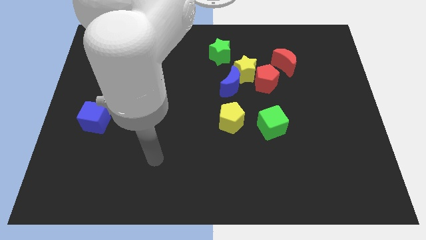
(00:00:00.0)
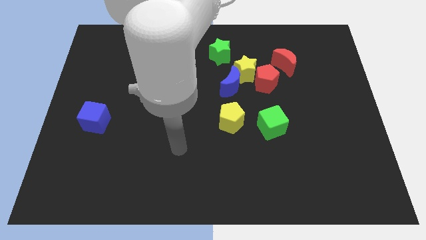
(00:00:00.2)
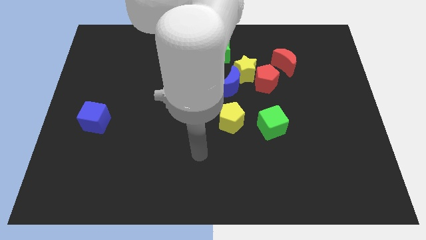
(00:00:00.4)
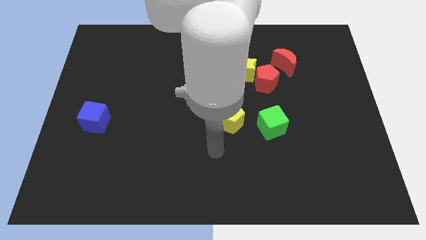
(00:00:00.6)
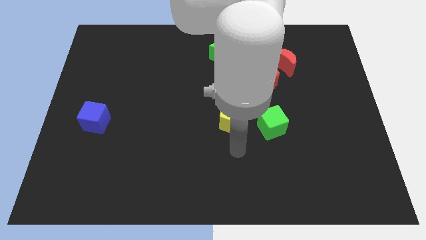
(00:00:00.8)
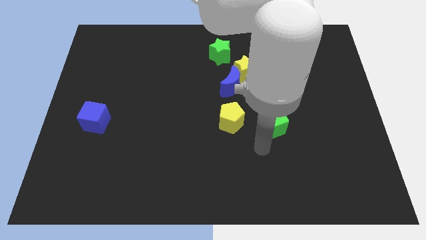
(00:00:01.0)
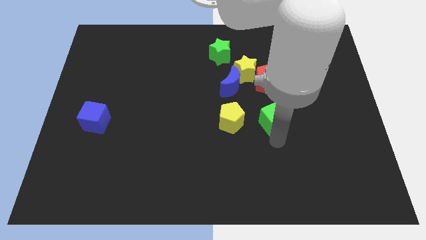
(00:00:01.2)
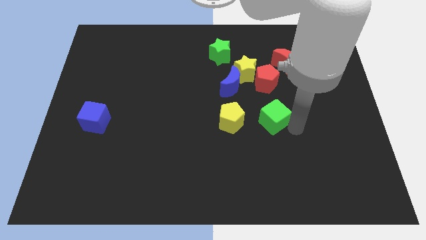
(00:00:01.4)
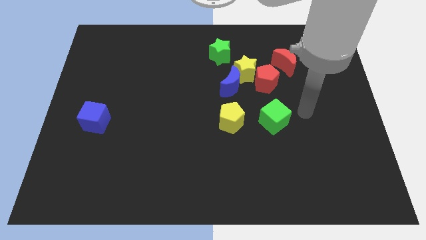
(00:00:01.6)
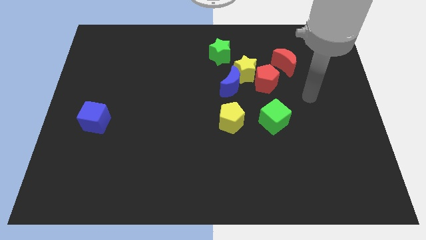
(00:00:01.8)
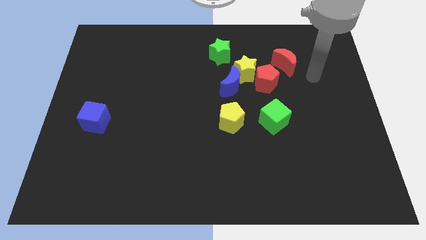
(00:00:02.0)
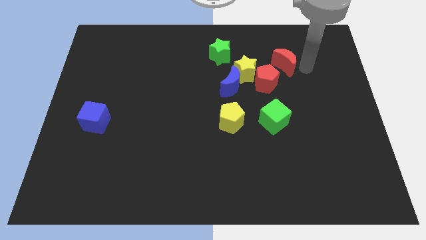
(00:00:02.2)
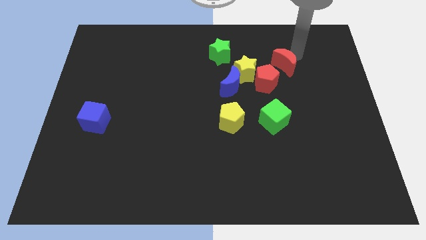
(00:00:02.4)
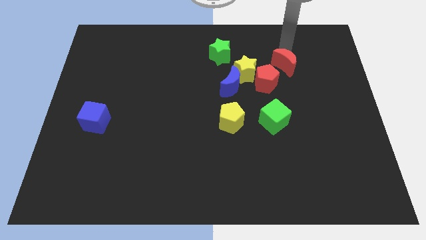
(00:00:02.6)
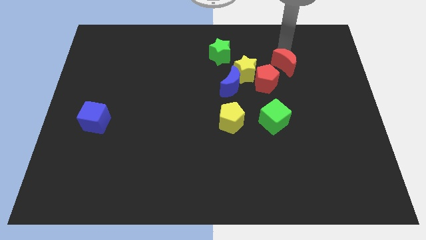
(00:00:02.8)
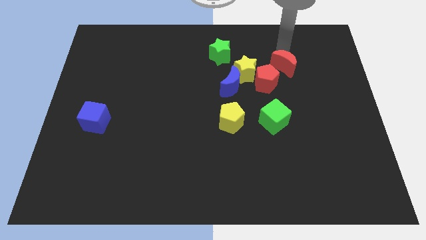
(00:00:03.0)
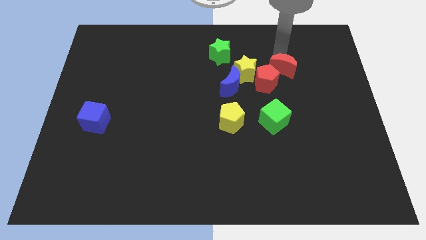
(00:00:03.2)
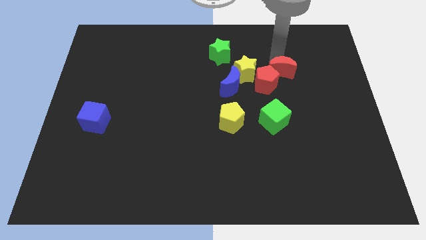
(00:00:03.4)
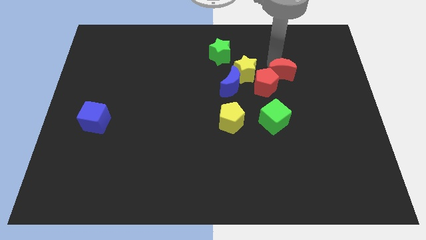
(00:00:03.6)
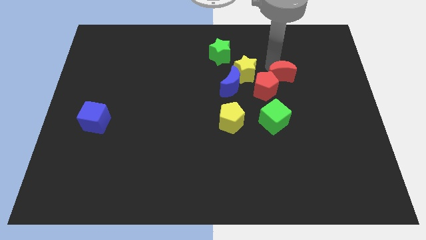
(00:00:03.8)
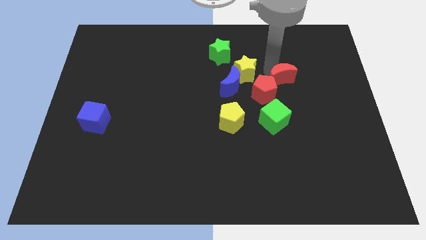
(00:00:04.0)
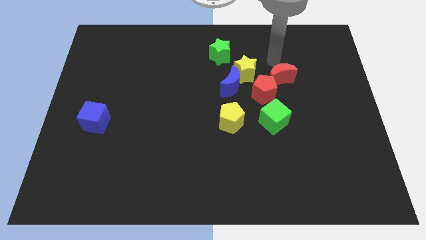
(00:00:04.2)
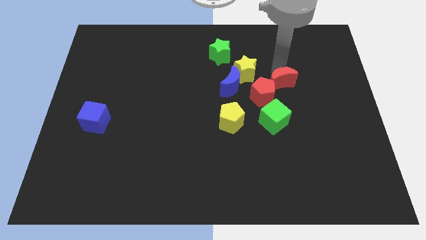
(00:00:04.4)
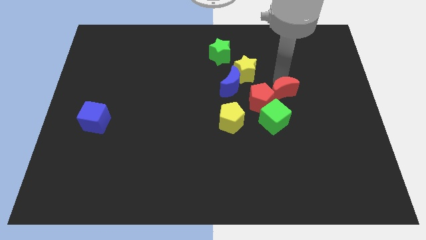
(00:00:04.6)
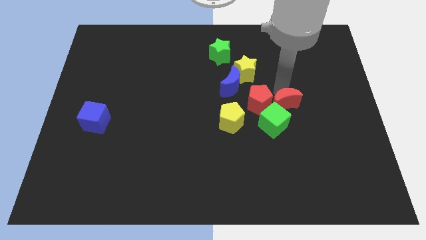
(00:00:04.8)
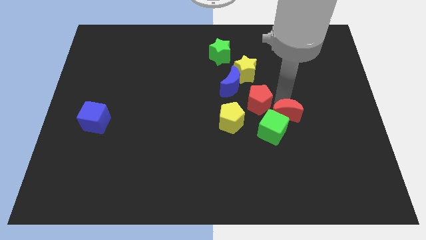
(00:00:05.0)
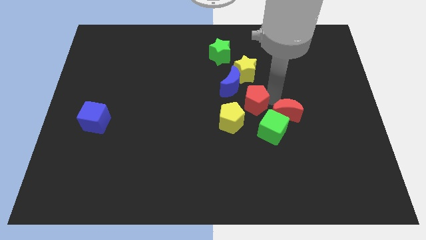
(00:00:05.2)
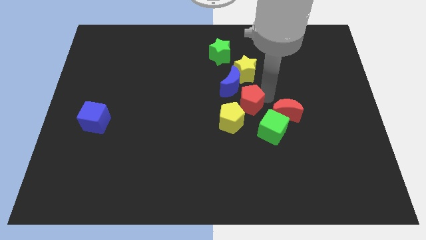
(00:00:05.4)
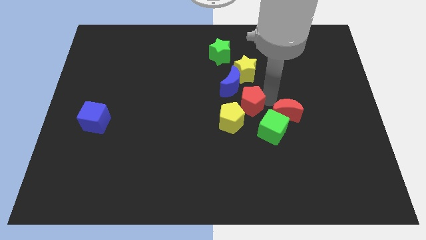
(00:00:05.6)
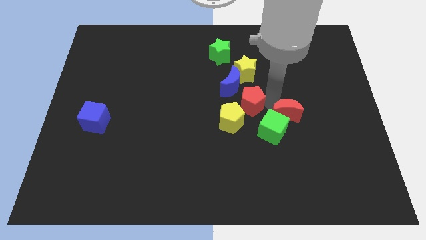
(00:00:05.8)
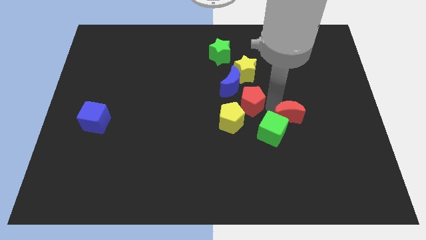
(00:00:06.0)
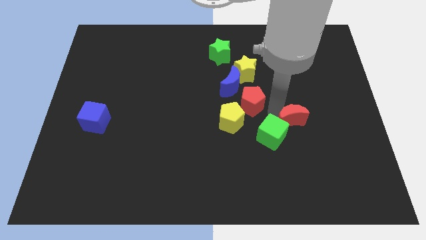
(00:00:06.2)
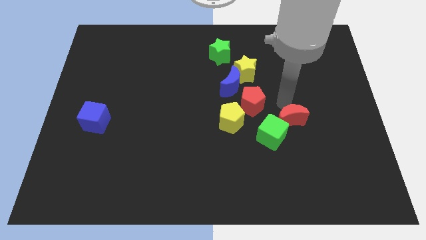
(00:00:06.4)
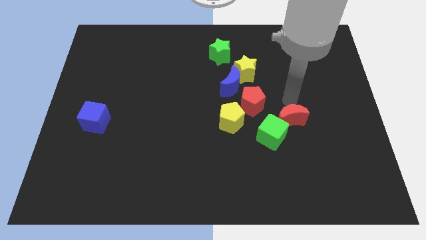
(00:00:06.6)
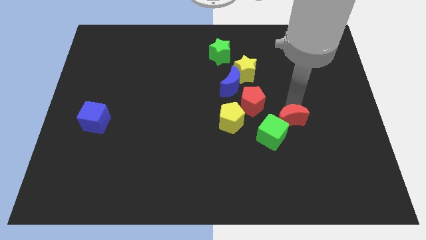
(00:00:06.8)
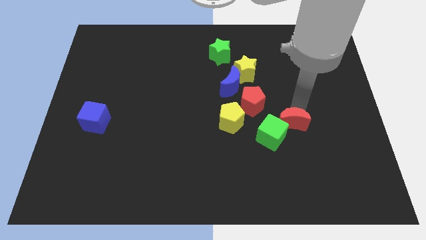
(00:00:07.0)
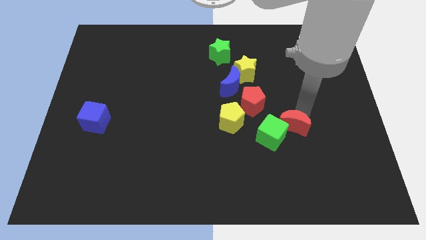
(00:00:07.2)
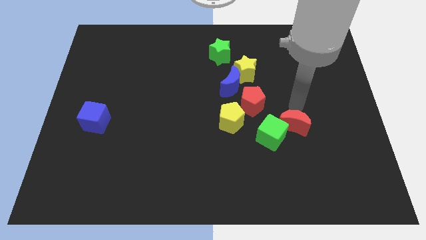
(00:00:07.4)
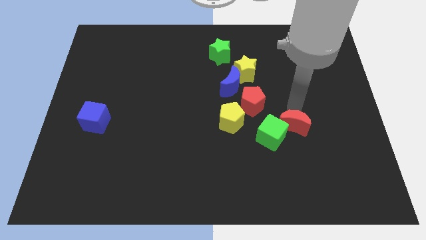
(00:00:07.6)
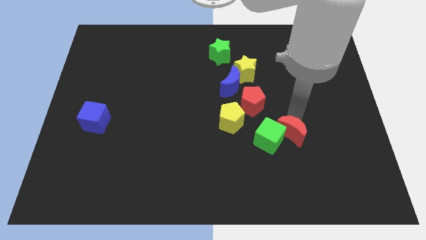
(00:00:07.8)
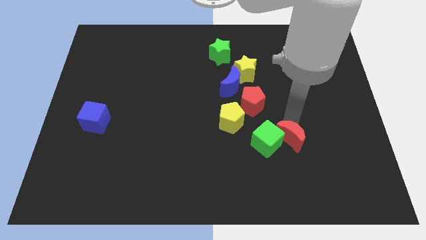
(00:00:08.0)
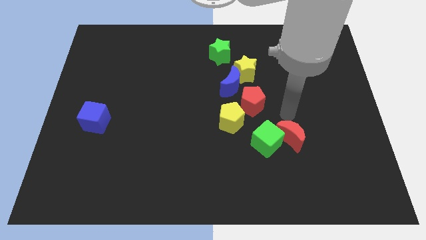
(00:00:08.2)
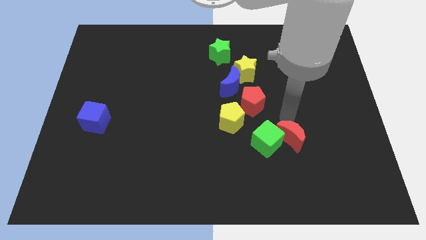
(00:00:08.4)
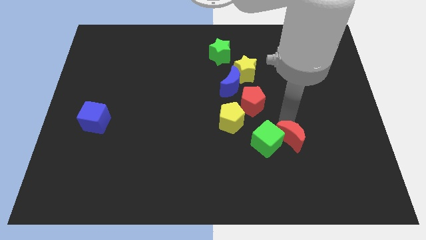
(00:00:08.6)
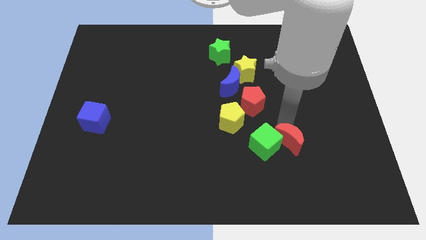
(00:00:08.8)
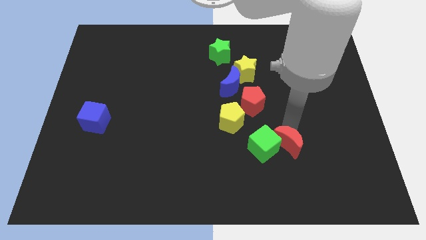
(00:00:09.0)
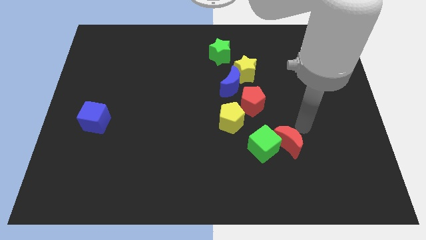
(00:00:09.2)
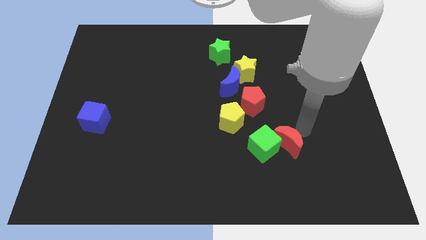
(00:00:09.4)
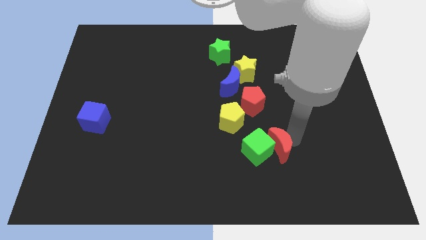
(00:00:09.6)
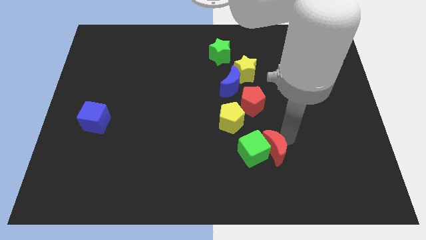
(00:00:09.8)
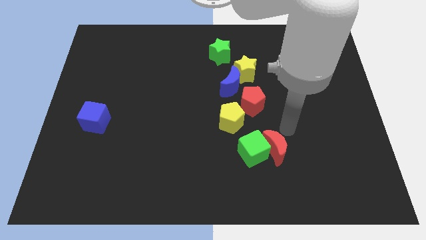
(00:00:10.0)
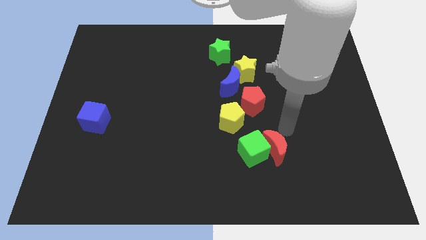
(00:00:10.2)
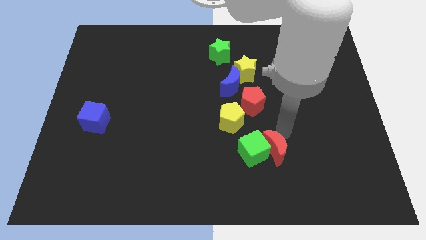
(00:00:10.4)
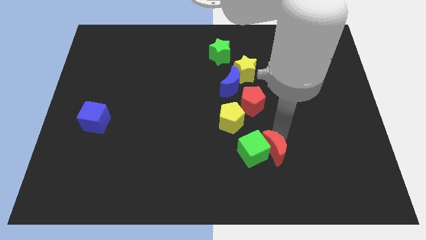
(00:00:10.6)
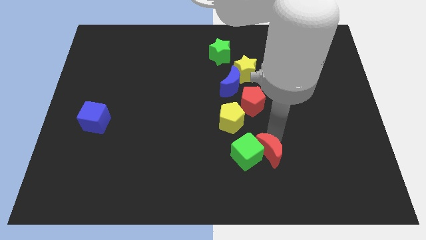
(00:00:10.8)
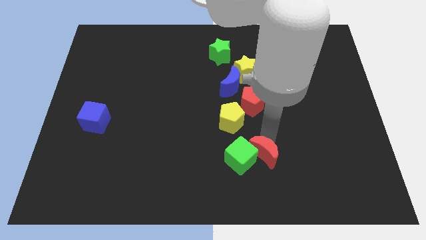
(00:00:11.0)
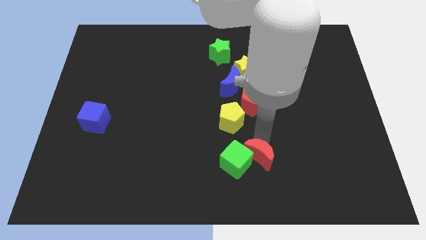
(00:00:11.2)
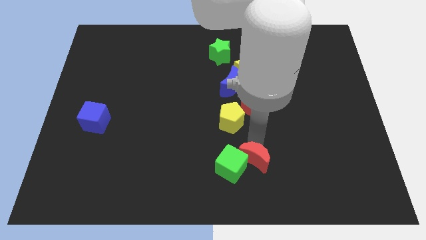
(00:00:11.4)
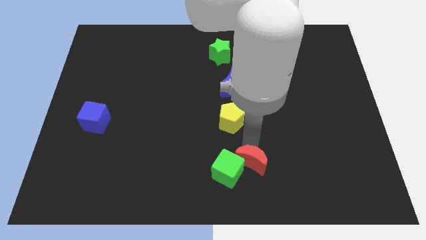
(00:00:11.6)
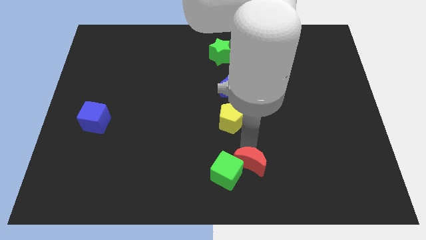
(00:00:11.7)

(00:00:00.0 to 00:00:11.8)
slide the red moon to the bottom side
